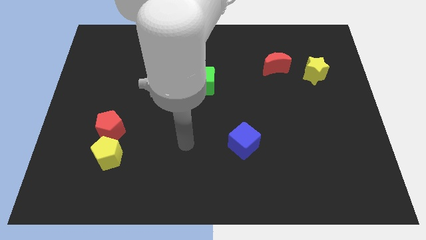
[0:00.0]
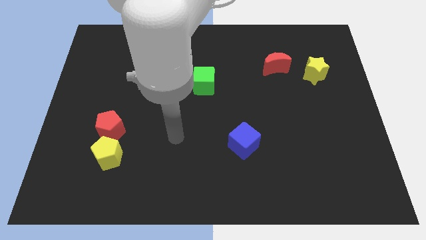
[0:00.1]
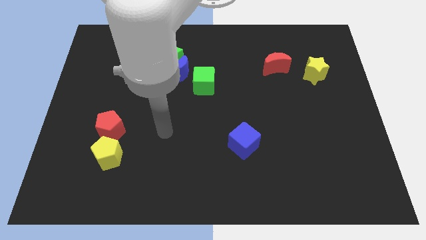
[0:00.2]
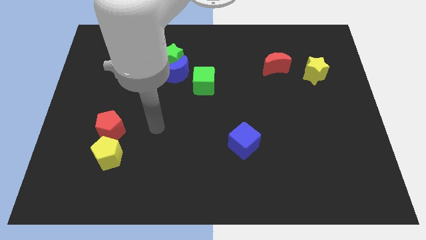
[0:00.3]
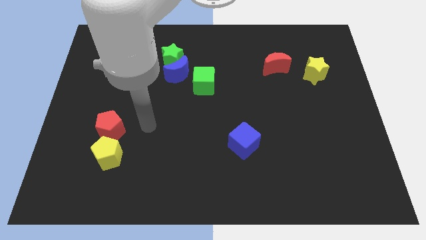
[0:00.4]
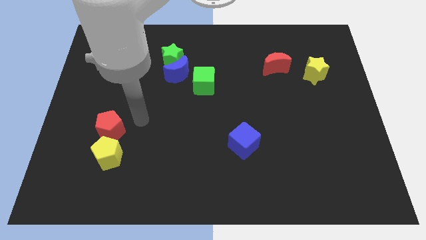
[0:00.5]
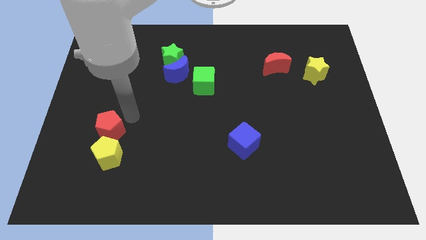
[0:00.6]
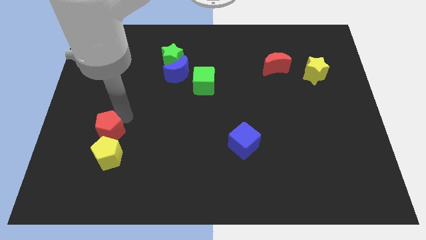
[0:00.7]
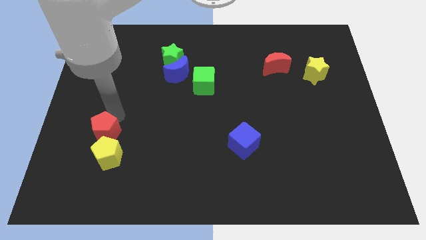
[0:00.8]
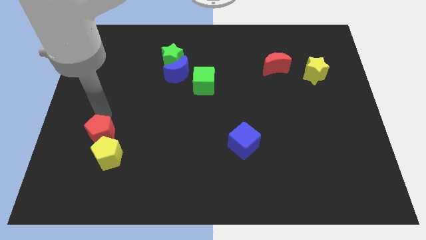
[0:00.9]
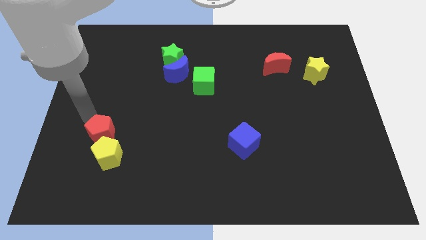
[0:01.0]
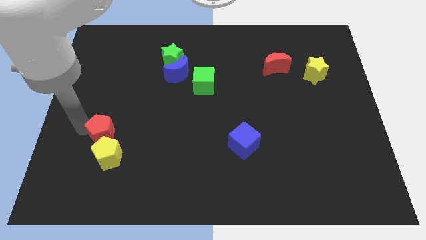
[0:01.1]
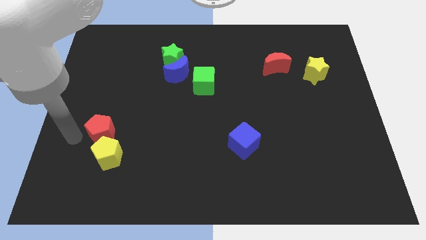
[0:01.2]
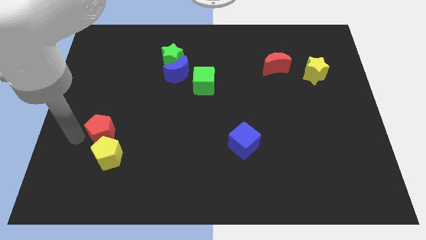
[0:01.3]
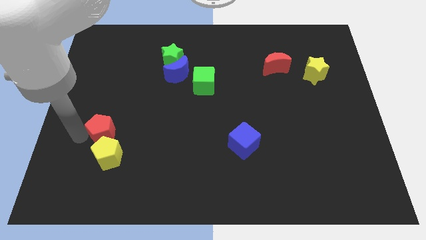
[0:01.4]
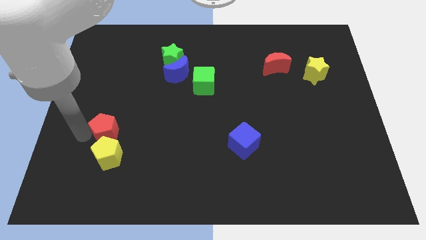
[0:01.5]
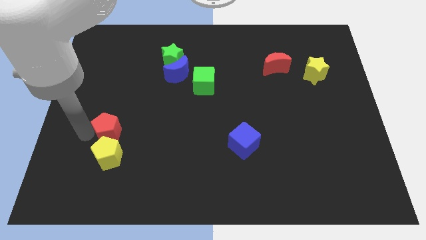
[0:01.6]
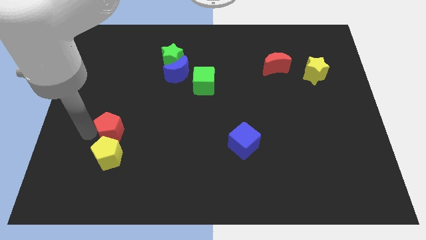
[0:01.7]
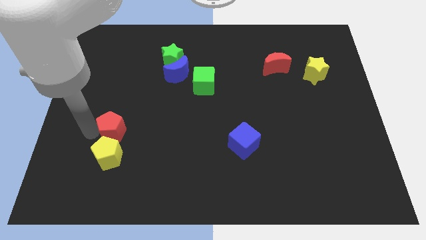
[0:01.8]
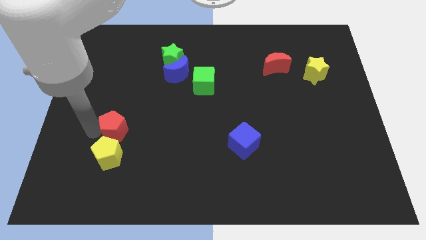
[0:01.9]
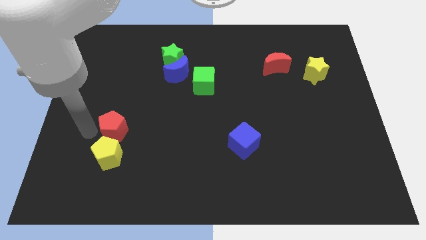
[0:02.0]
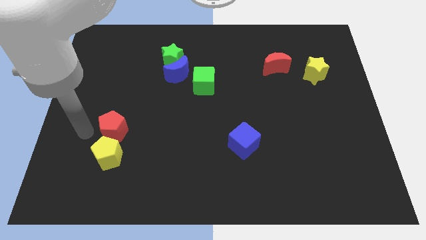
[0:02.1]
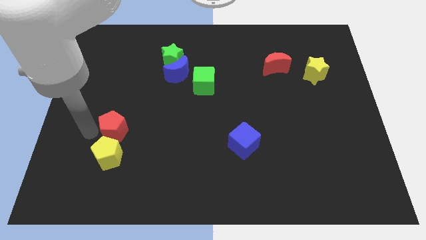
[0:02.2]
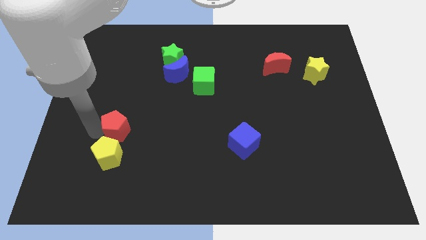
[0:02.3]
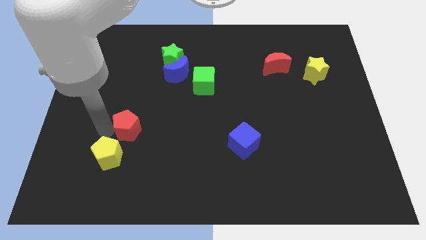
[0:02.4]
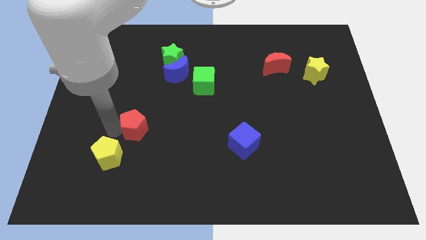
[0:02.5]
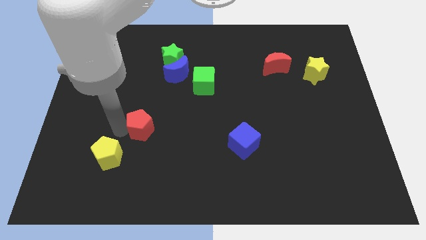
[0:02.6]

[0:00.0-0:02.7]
slide the red pentagon somewhat to the right

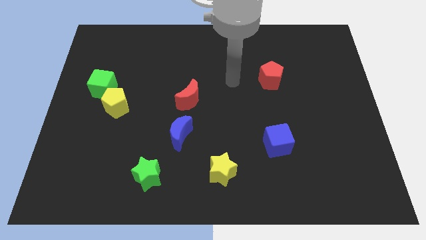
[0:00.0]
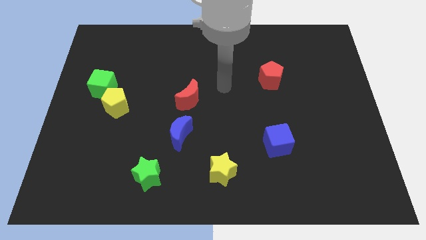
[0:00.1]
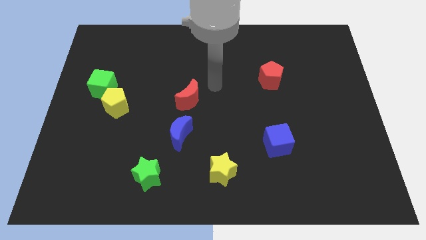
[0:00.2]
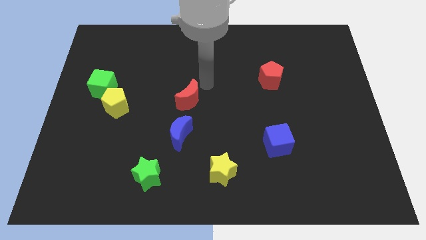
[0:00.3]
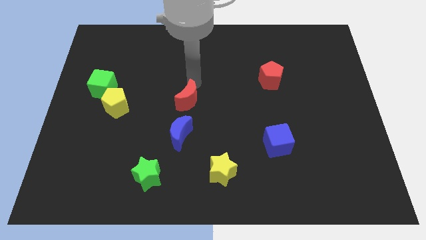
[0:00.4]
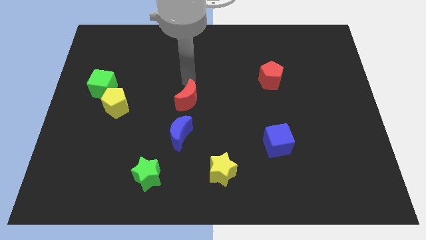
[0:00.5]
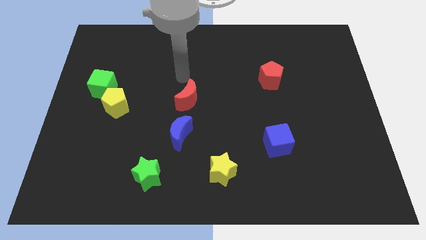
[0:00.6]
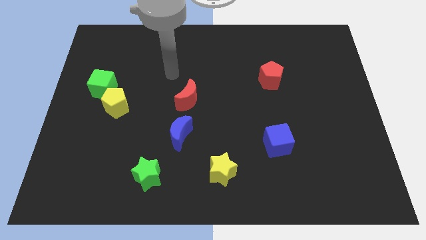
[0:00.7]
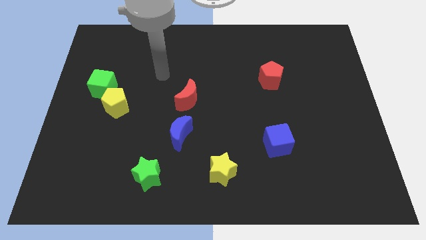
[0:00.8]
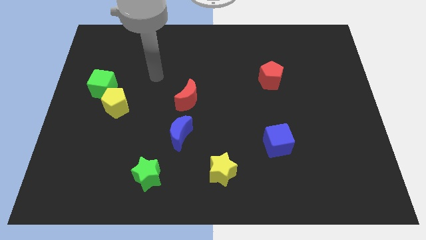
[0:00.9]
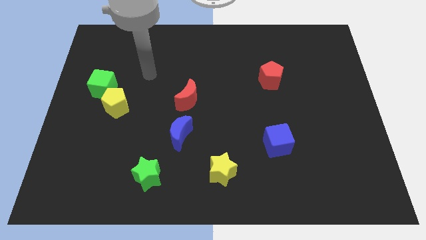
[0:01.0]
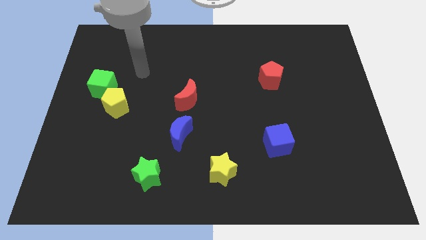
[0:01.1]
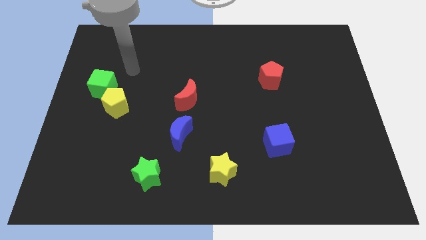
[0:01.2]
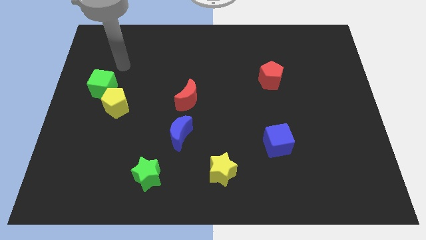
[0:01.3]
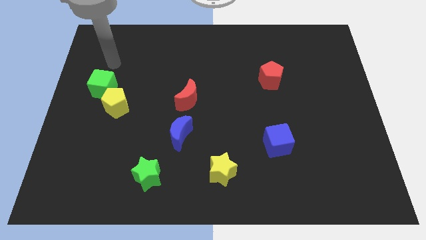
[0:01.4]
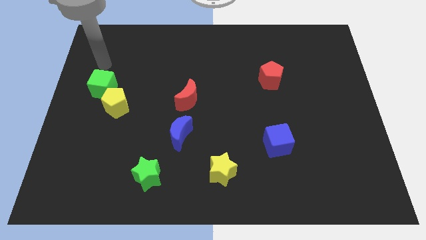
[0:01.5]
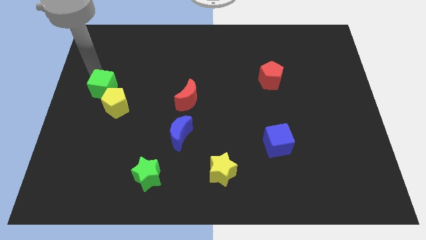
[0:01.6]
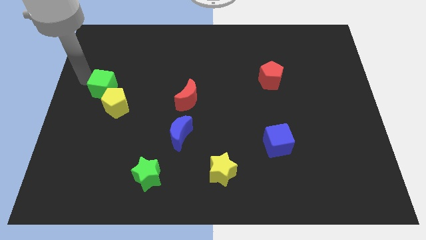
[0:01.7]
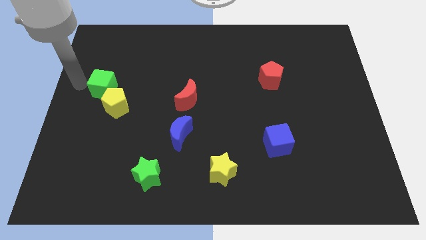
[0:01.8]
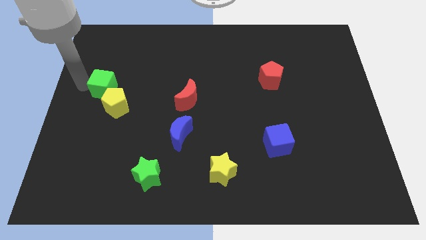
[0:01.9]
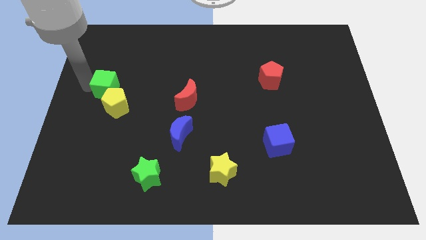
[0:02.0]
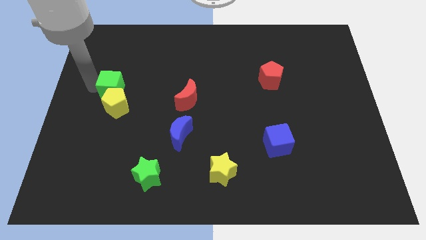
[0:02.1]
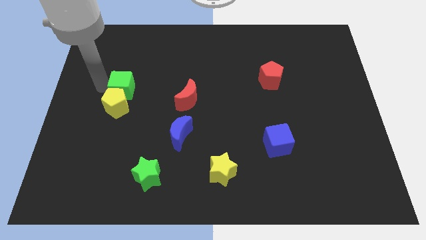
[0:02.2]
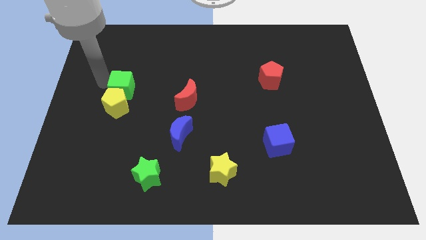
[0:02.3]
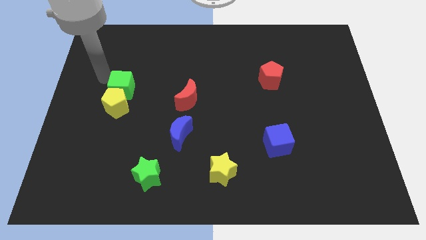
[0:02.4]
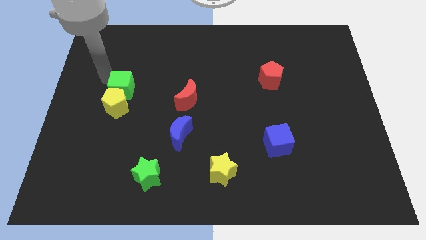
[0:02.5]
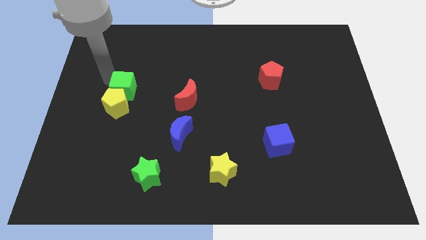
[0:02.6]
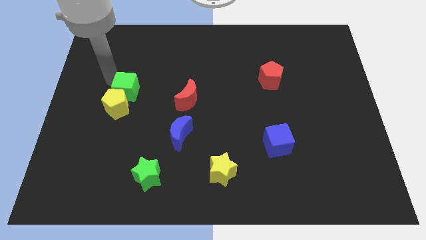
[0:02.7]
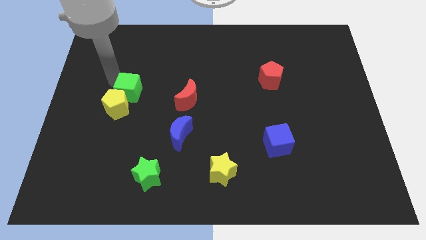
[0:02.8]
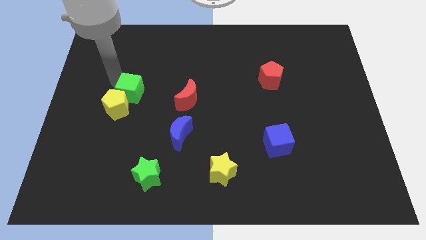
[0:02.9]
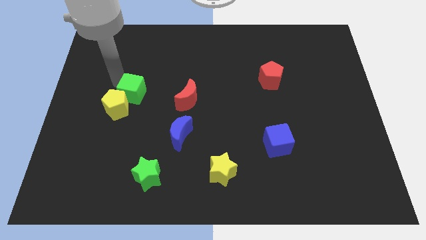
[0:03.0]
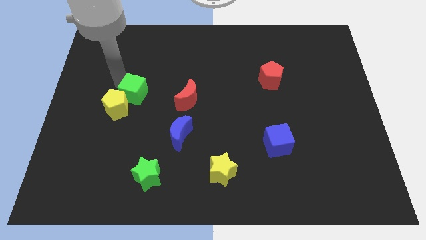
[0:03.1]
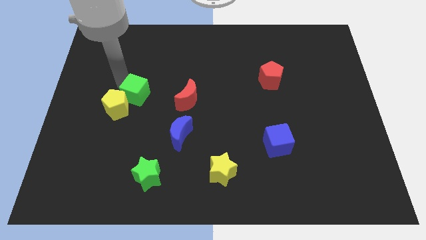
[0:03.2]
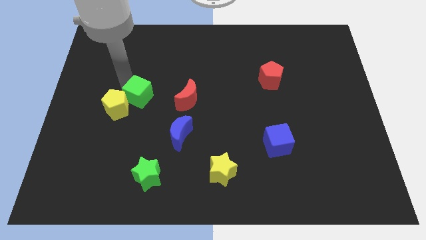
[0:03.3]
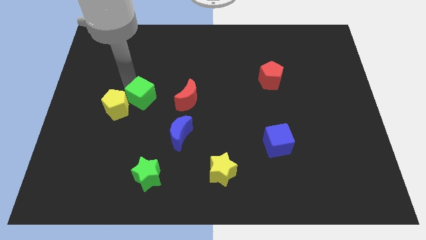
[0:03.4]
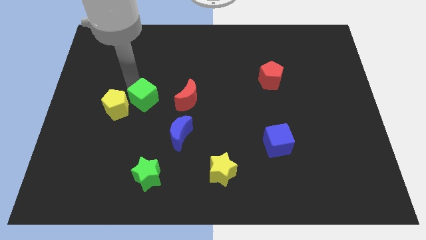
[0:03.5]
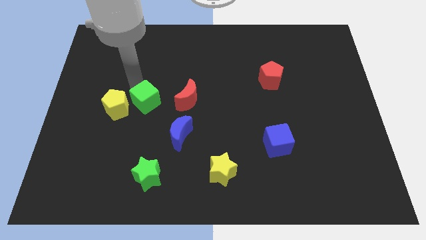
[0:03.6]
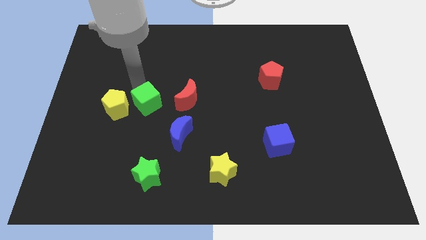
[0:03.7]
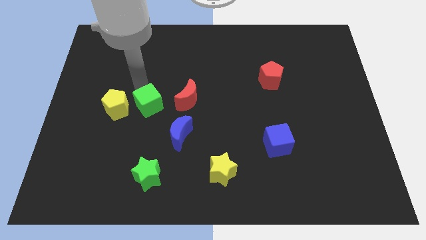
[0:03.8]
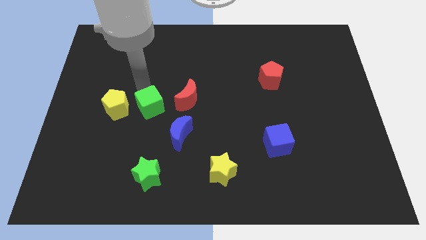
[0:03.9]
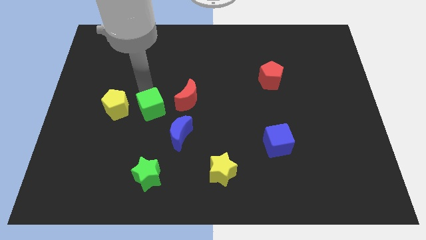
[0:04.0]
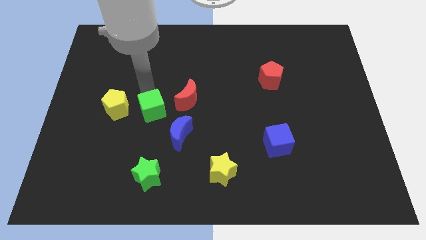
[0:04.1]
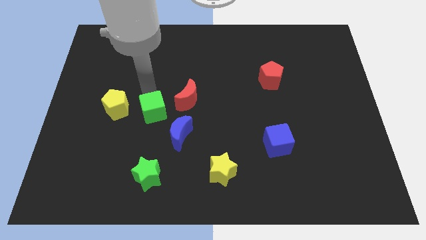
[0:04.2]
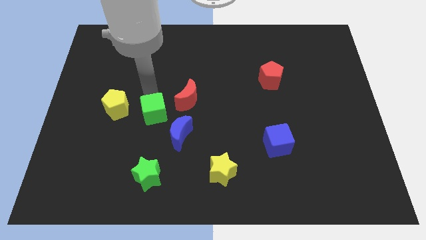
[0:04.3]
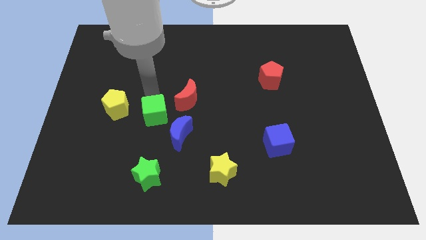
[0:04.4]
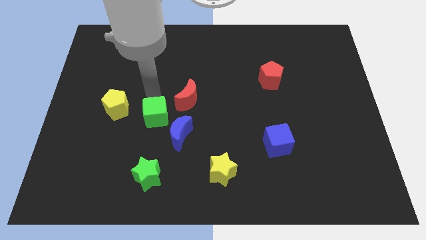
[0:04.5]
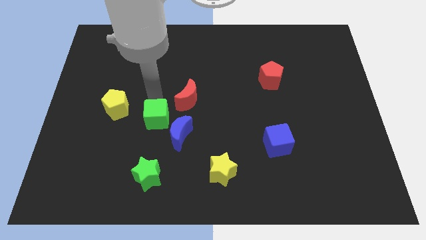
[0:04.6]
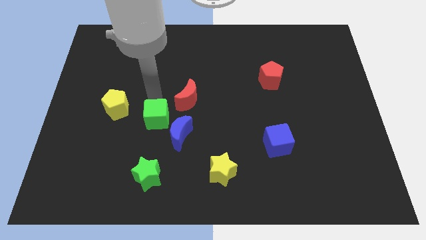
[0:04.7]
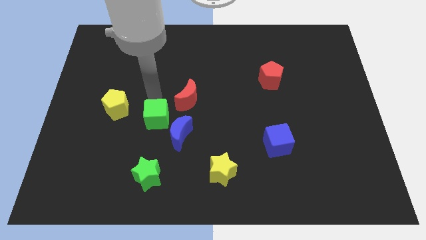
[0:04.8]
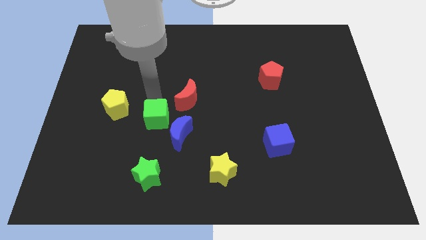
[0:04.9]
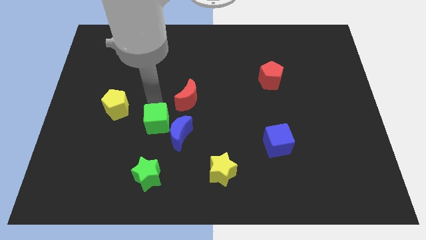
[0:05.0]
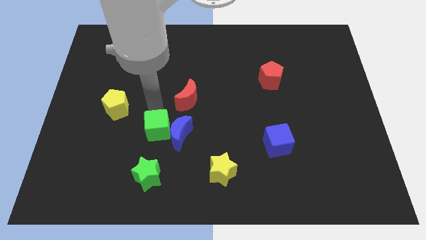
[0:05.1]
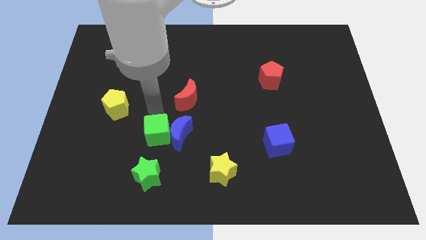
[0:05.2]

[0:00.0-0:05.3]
slide the green cube downwards and then right
